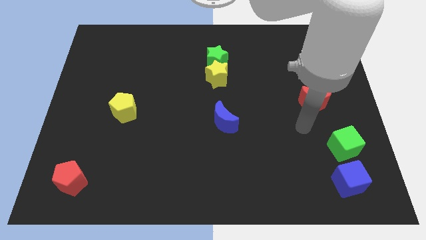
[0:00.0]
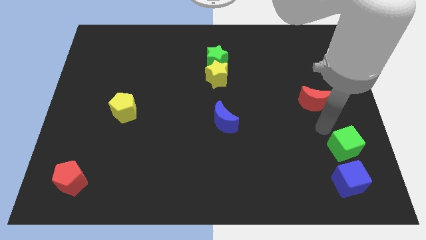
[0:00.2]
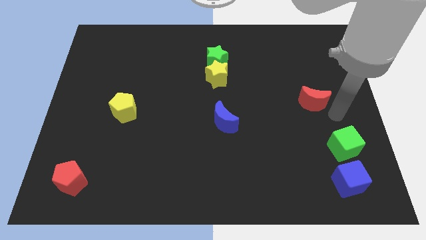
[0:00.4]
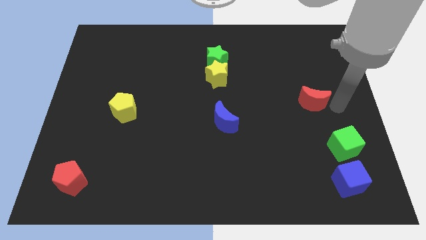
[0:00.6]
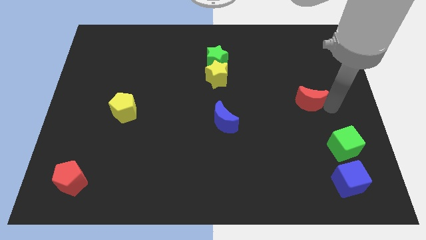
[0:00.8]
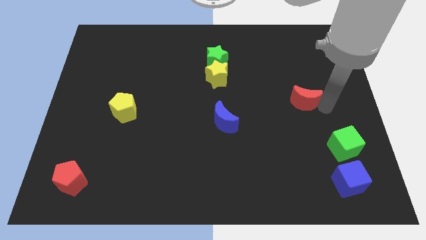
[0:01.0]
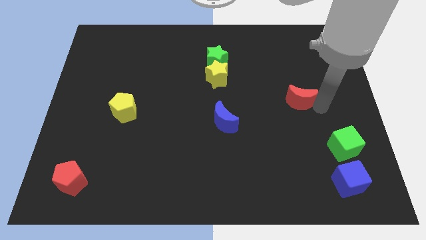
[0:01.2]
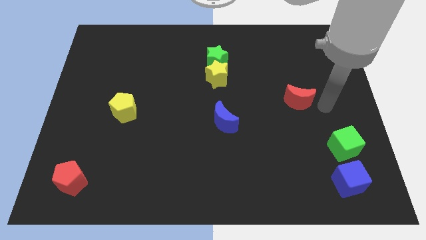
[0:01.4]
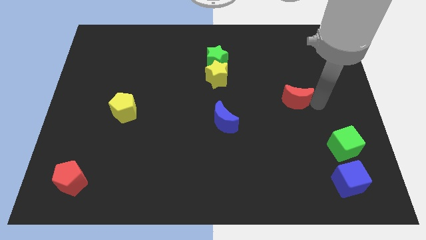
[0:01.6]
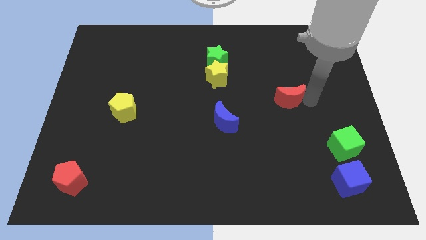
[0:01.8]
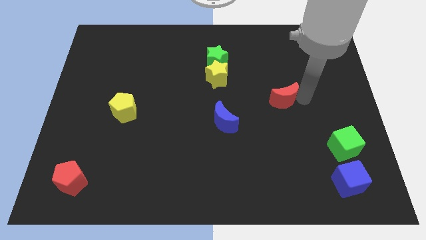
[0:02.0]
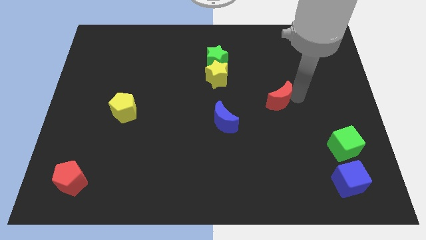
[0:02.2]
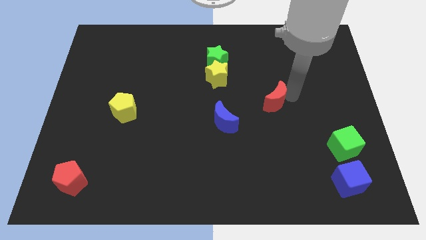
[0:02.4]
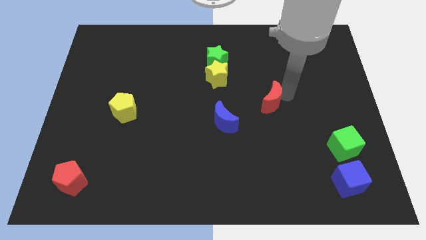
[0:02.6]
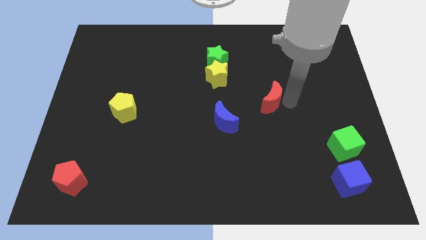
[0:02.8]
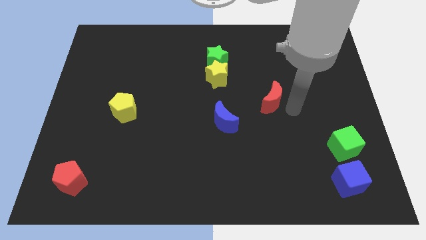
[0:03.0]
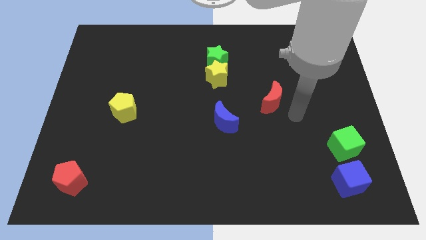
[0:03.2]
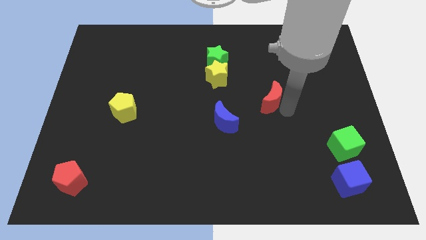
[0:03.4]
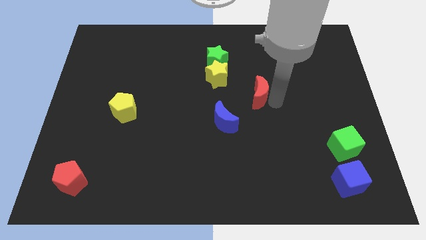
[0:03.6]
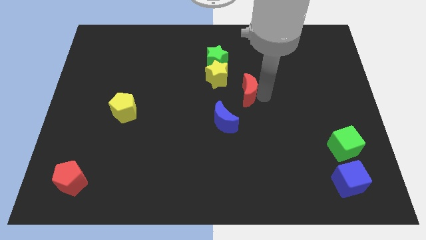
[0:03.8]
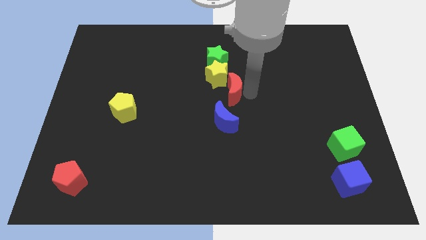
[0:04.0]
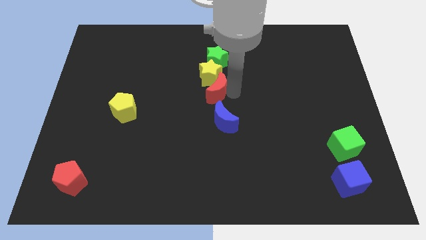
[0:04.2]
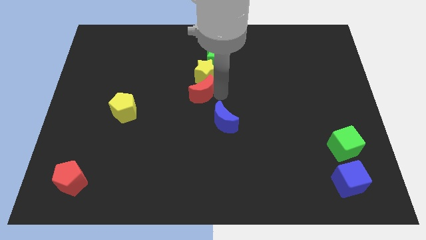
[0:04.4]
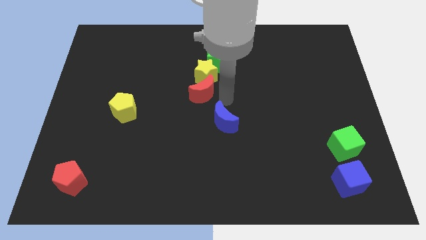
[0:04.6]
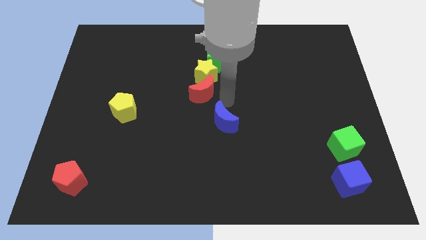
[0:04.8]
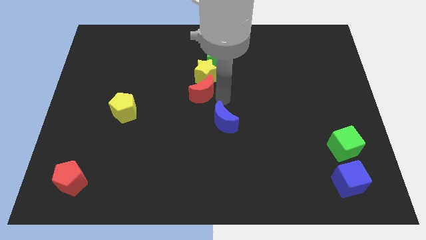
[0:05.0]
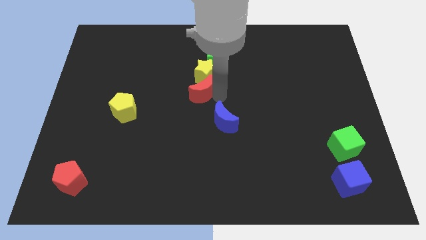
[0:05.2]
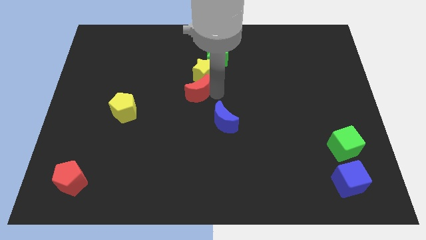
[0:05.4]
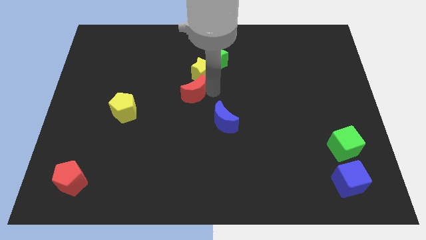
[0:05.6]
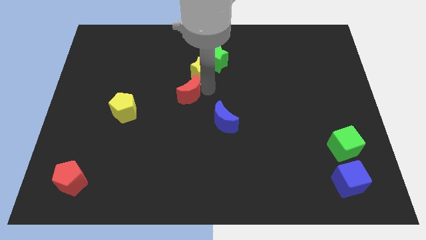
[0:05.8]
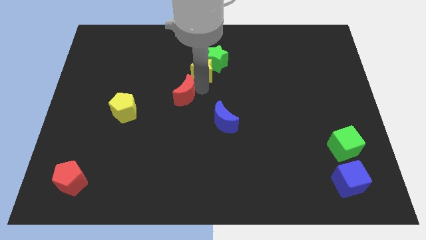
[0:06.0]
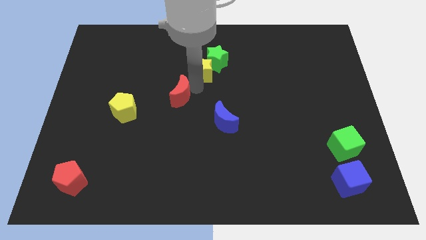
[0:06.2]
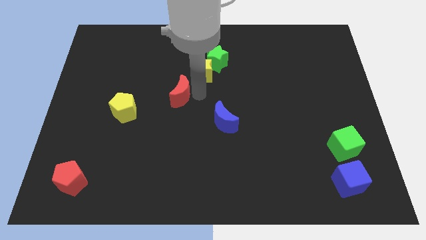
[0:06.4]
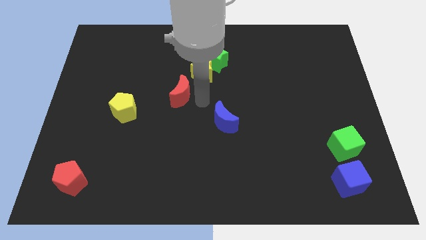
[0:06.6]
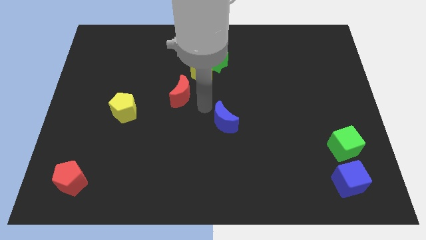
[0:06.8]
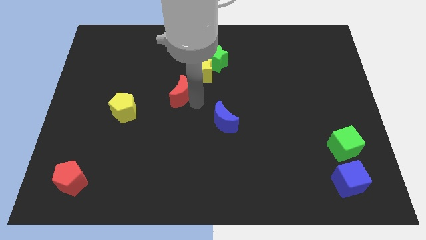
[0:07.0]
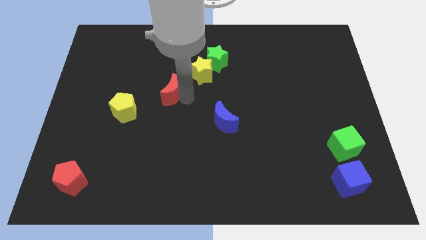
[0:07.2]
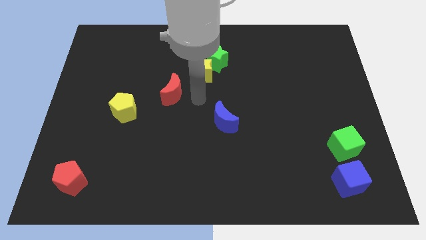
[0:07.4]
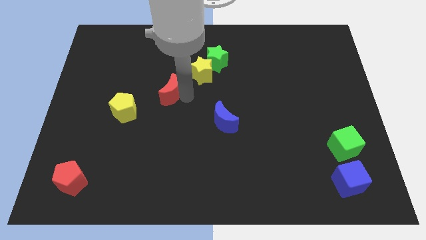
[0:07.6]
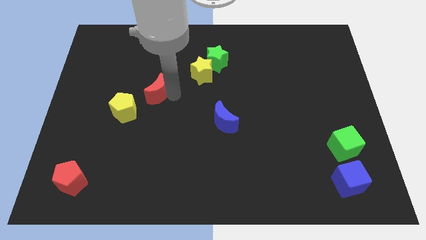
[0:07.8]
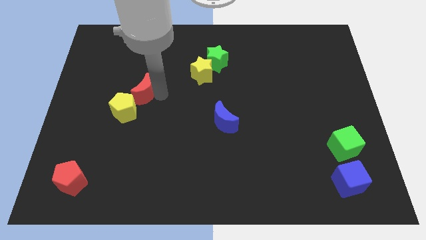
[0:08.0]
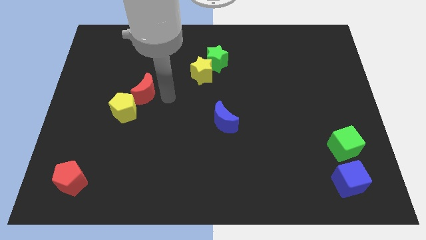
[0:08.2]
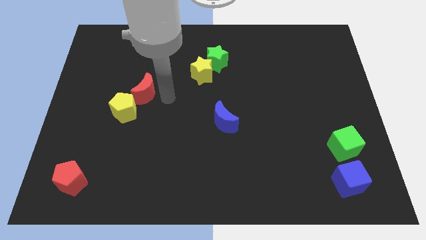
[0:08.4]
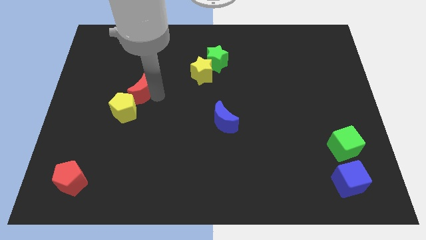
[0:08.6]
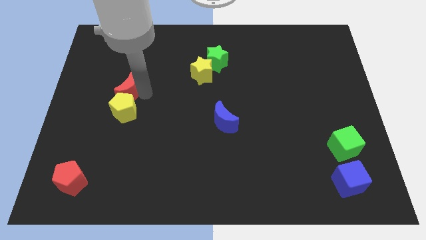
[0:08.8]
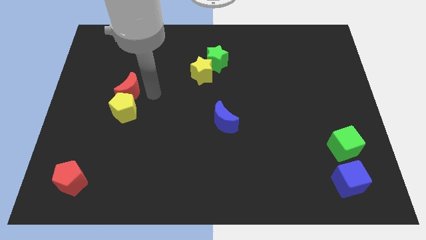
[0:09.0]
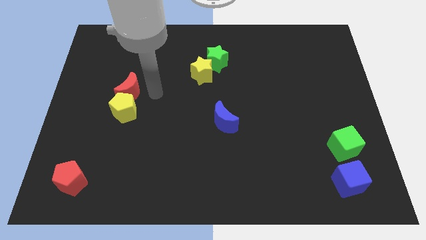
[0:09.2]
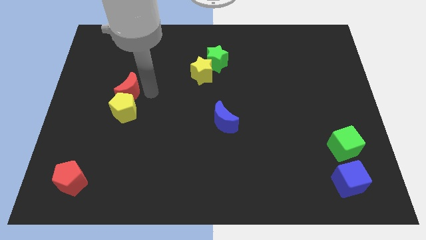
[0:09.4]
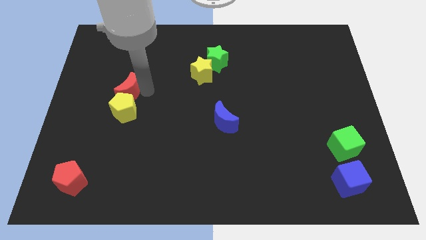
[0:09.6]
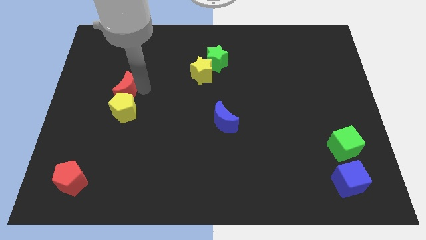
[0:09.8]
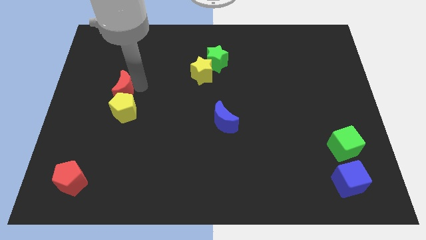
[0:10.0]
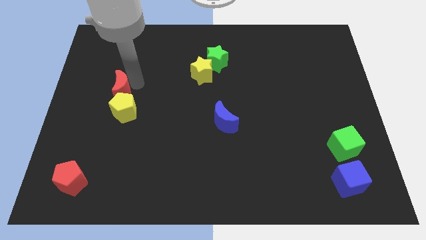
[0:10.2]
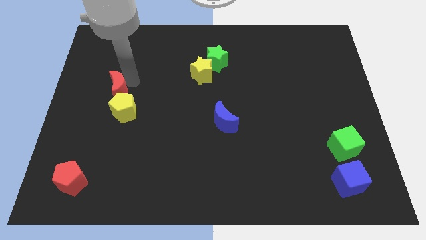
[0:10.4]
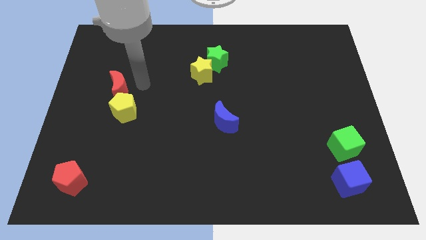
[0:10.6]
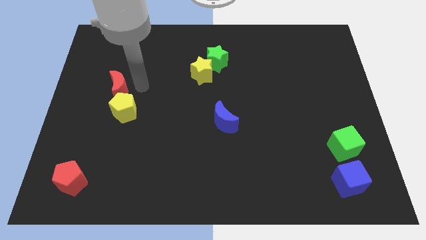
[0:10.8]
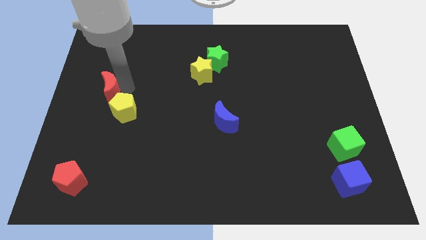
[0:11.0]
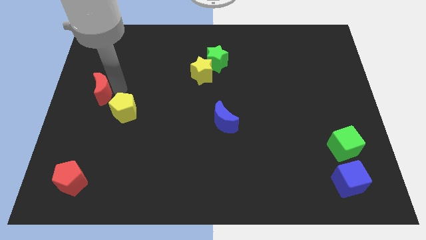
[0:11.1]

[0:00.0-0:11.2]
put the red moon to the left side

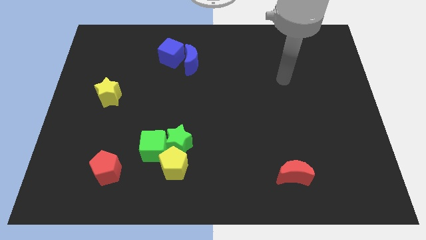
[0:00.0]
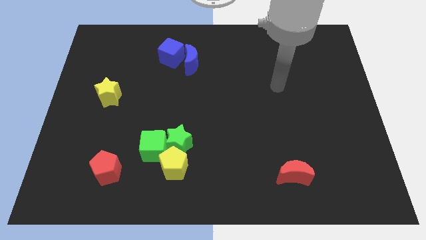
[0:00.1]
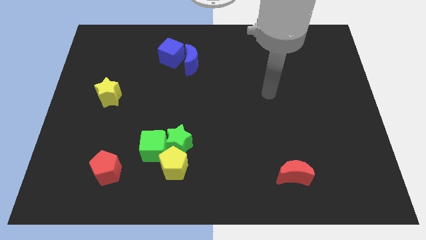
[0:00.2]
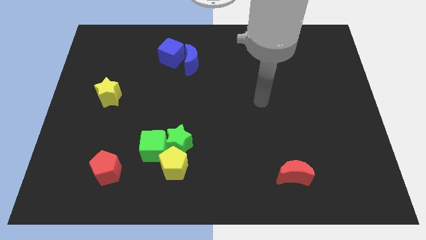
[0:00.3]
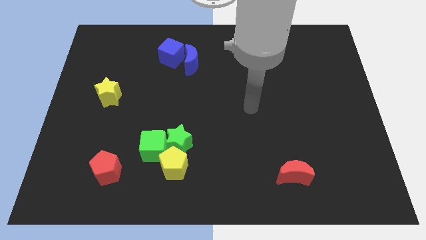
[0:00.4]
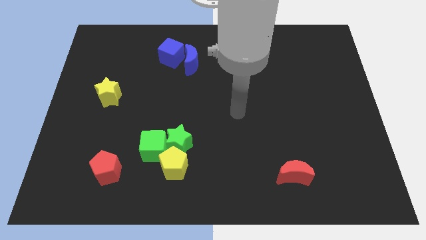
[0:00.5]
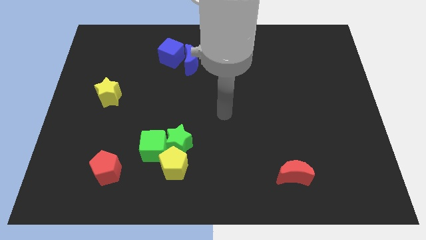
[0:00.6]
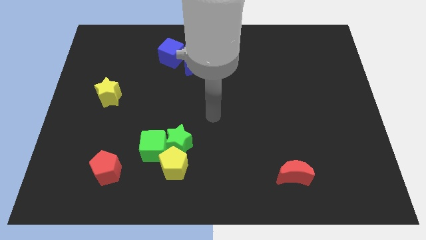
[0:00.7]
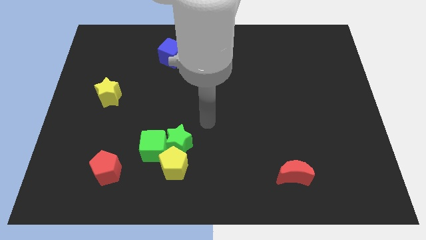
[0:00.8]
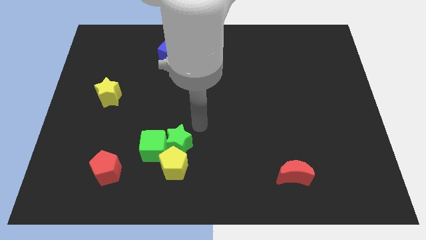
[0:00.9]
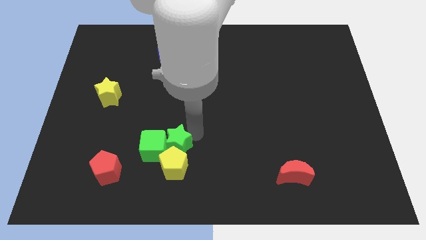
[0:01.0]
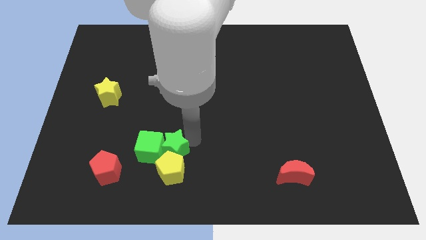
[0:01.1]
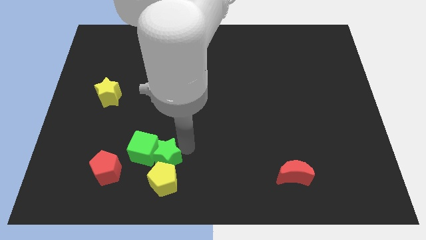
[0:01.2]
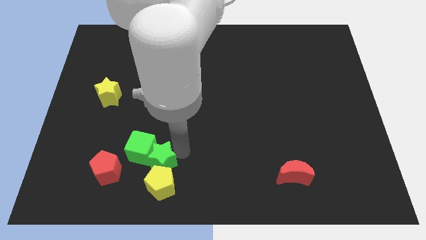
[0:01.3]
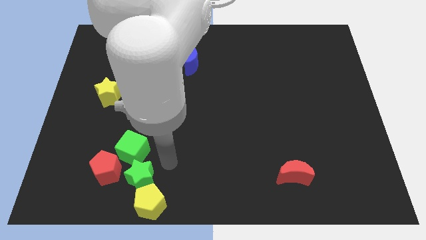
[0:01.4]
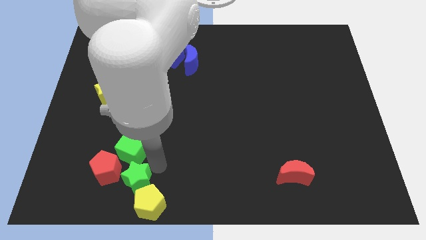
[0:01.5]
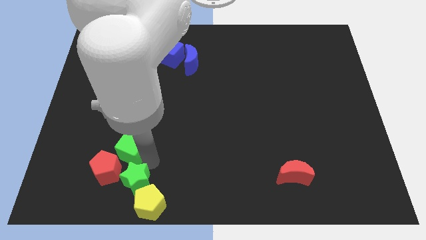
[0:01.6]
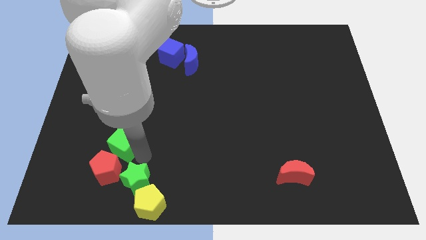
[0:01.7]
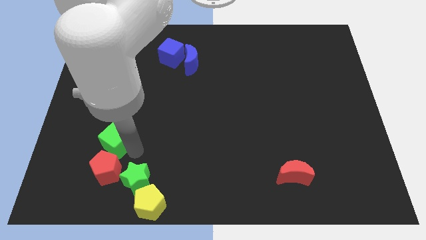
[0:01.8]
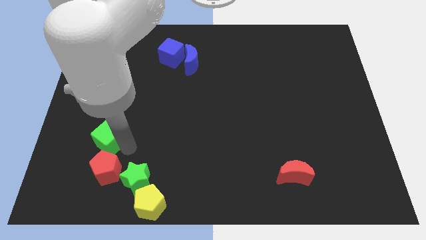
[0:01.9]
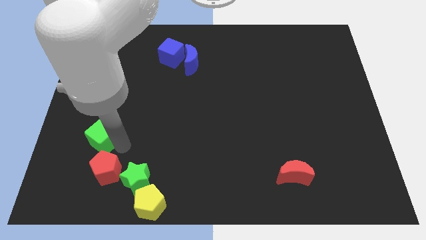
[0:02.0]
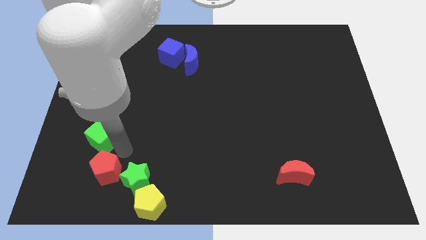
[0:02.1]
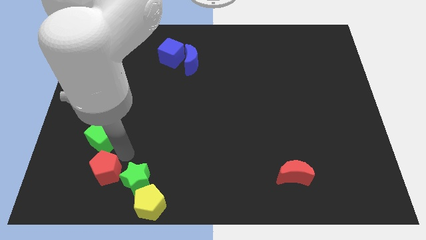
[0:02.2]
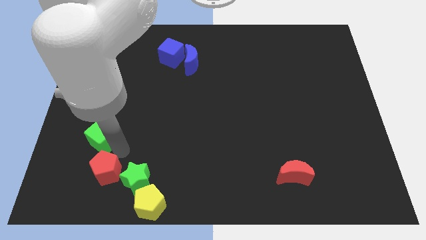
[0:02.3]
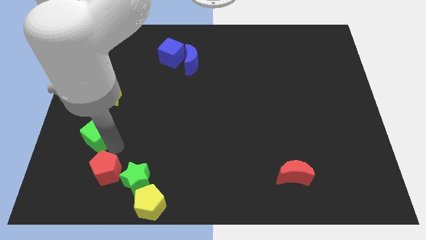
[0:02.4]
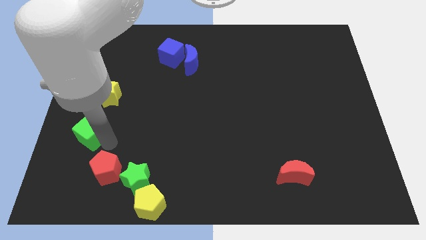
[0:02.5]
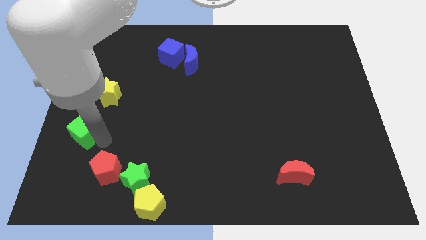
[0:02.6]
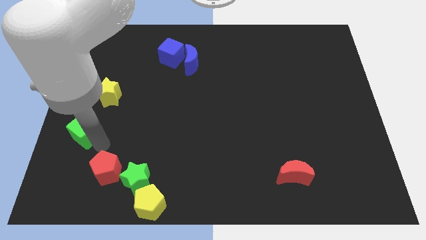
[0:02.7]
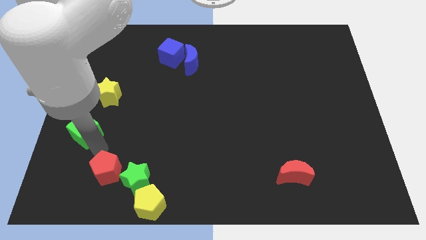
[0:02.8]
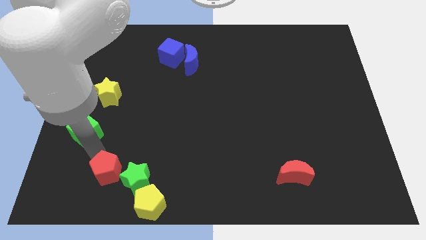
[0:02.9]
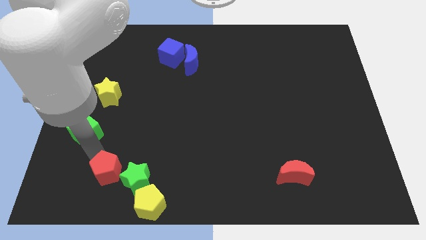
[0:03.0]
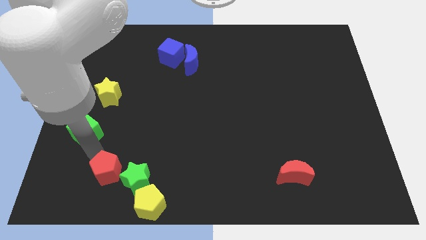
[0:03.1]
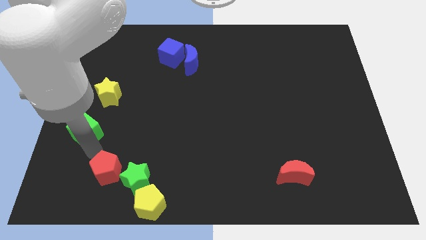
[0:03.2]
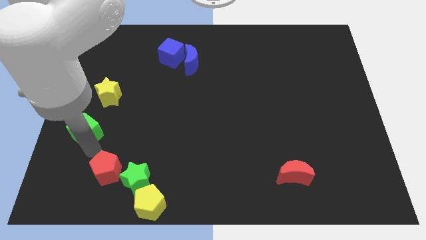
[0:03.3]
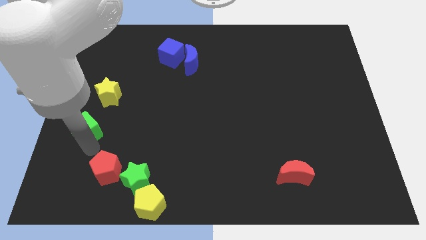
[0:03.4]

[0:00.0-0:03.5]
move the green cube to the center left
